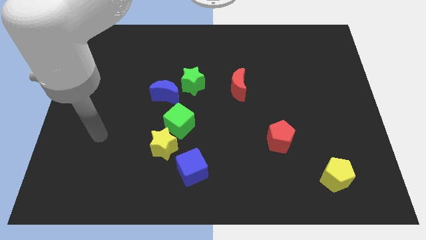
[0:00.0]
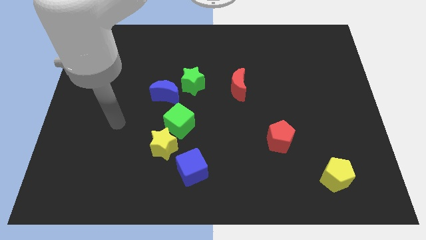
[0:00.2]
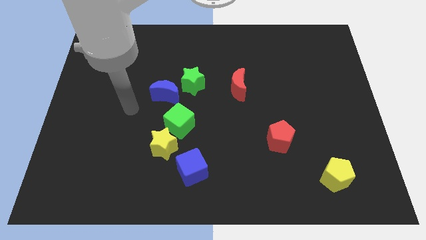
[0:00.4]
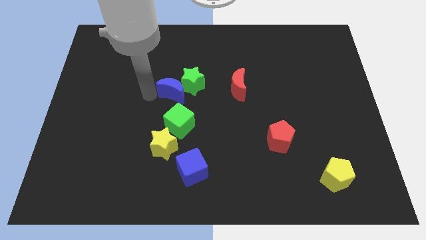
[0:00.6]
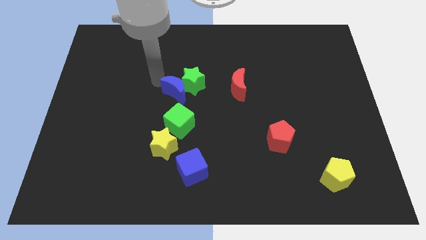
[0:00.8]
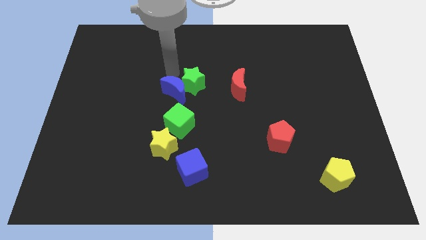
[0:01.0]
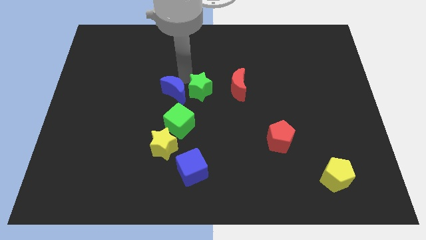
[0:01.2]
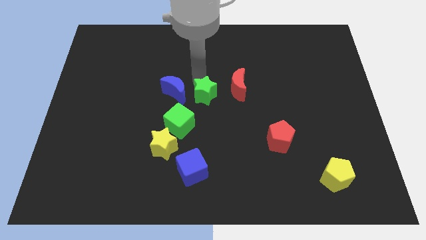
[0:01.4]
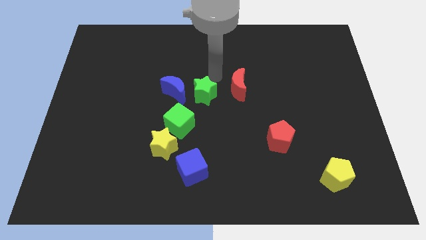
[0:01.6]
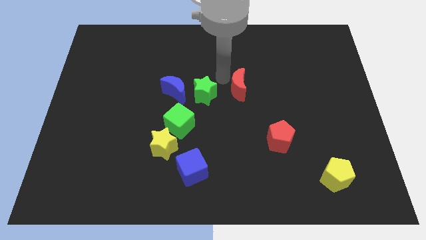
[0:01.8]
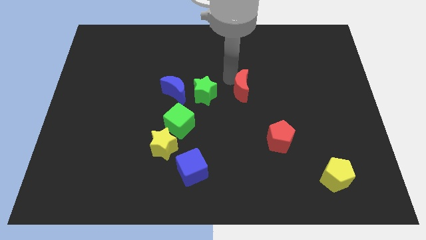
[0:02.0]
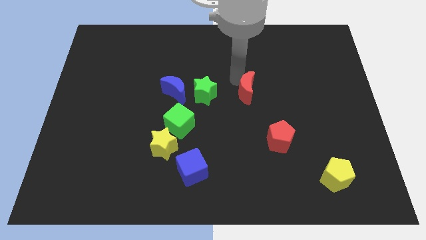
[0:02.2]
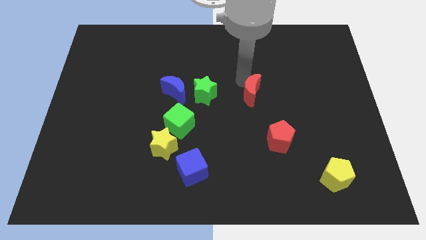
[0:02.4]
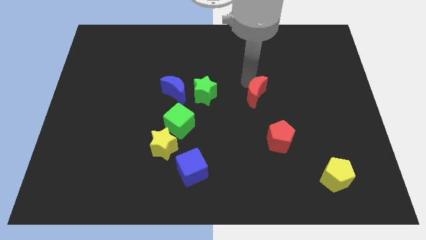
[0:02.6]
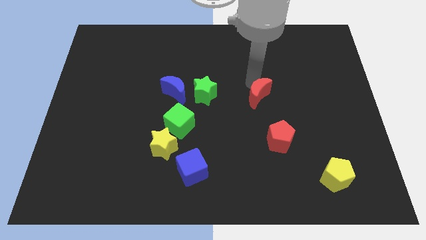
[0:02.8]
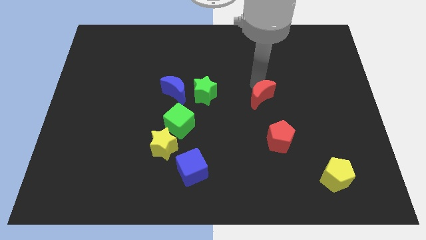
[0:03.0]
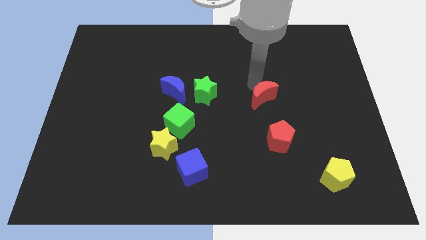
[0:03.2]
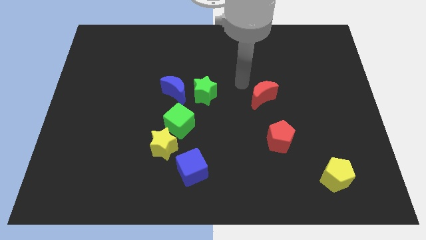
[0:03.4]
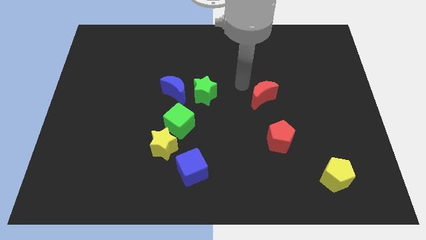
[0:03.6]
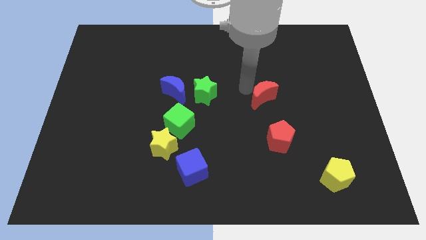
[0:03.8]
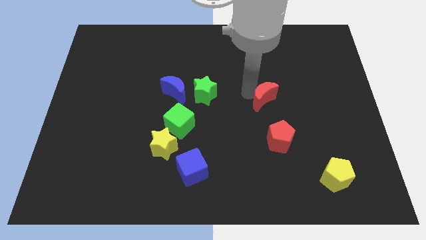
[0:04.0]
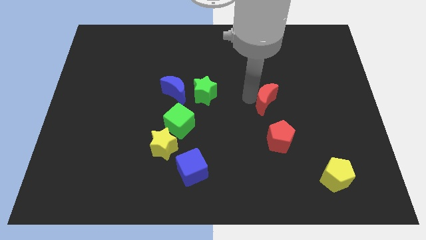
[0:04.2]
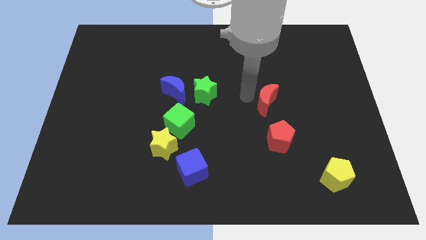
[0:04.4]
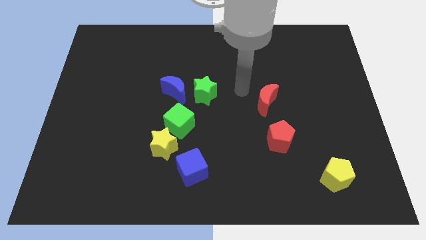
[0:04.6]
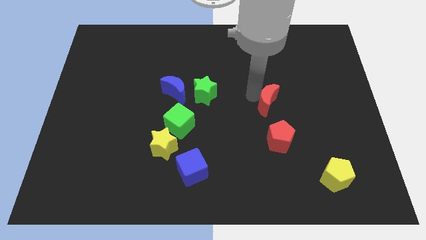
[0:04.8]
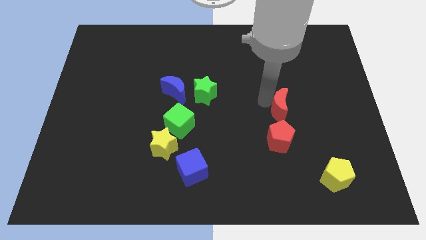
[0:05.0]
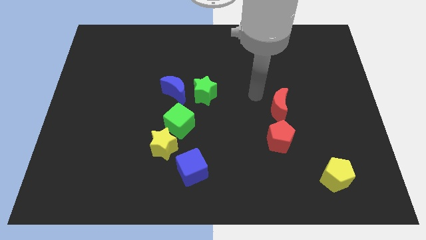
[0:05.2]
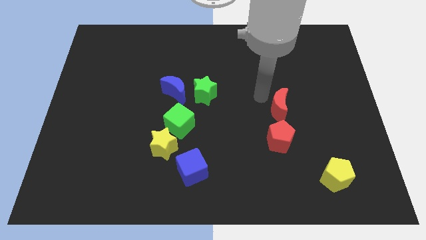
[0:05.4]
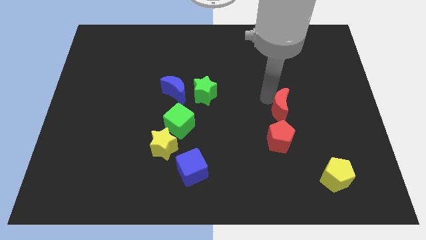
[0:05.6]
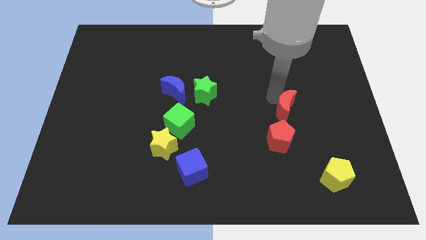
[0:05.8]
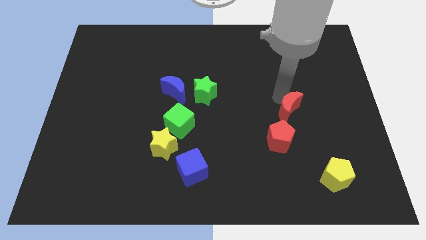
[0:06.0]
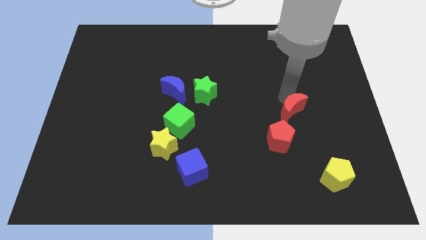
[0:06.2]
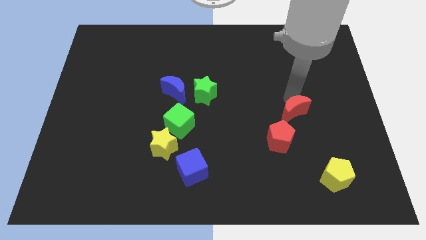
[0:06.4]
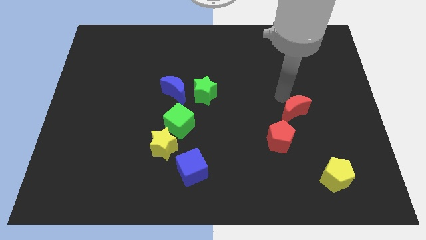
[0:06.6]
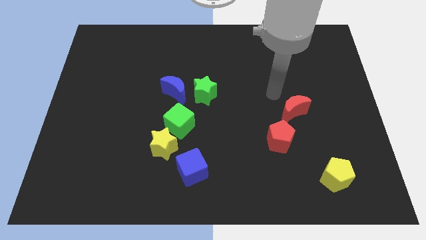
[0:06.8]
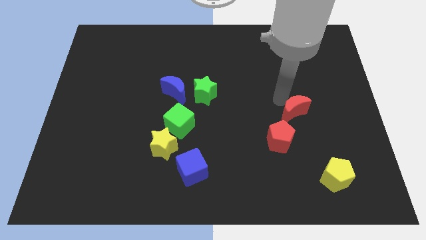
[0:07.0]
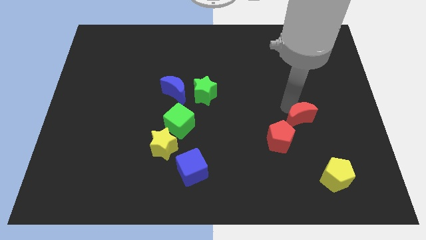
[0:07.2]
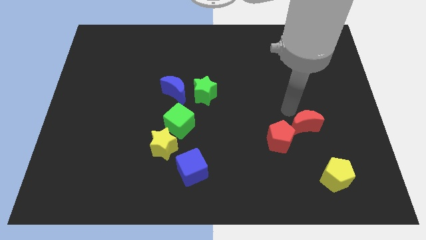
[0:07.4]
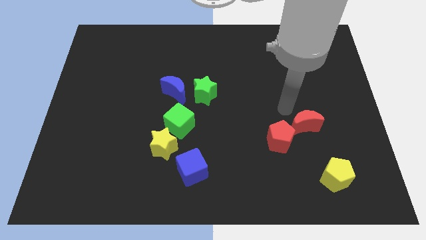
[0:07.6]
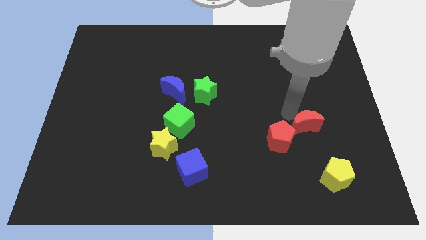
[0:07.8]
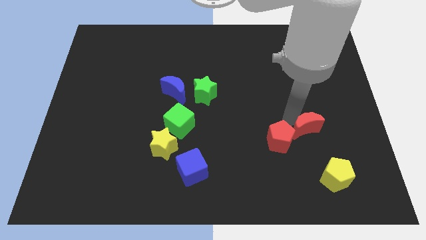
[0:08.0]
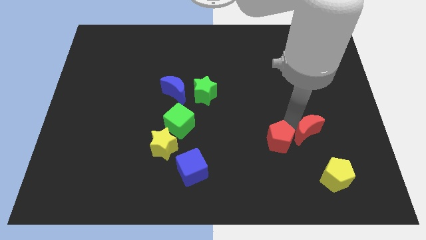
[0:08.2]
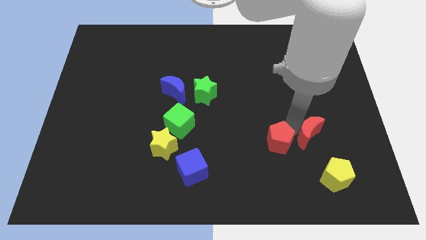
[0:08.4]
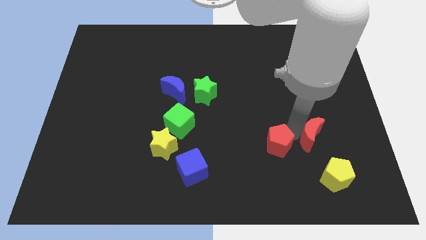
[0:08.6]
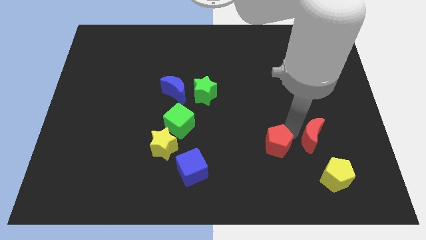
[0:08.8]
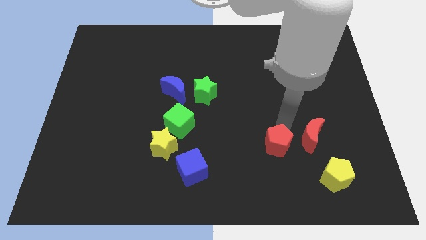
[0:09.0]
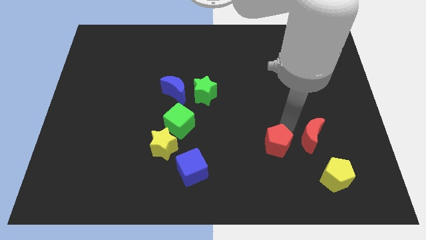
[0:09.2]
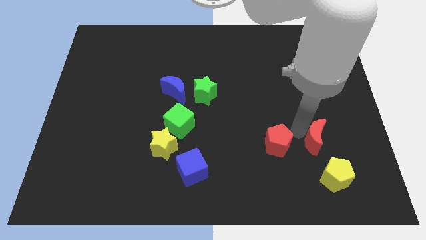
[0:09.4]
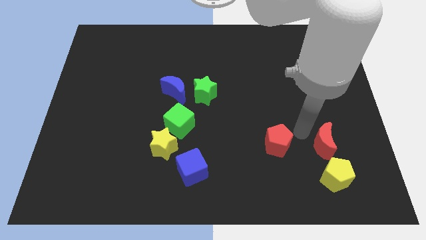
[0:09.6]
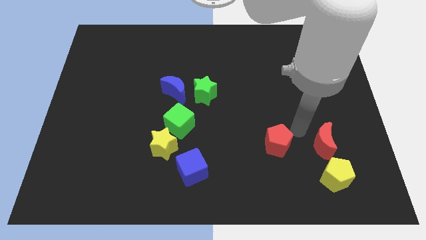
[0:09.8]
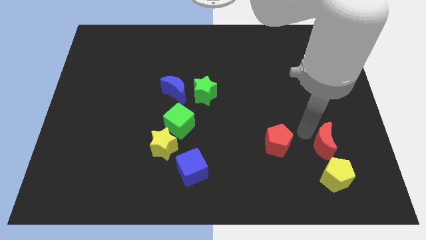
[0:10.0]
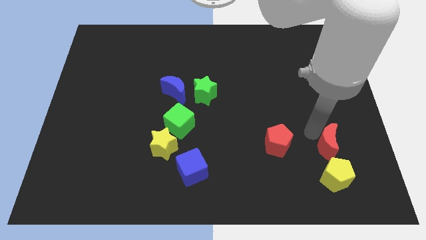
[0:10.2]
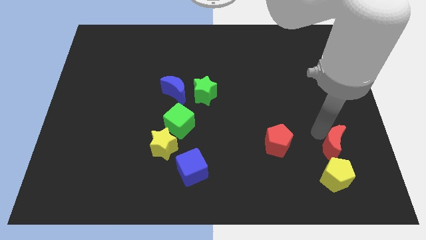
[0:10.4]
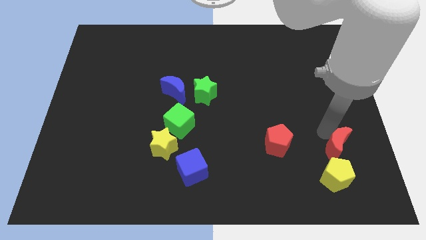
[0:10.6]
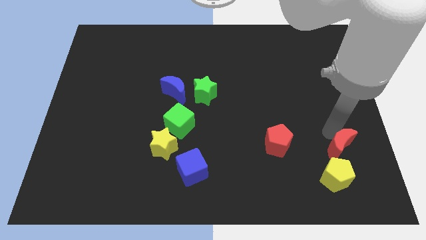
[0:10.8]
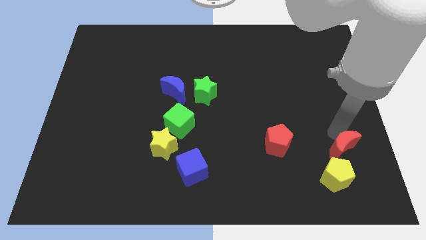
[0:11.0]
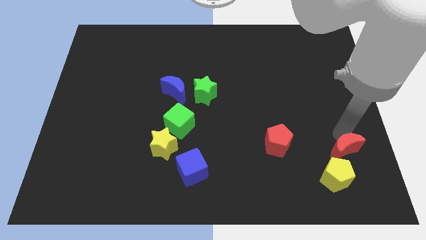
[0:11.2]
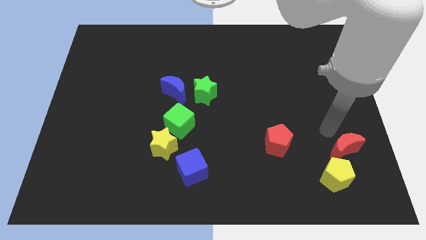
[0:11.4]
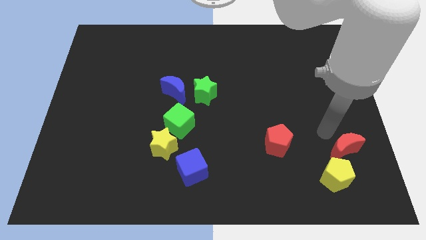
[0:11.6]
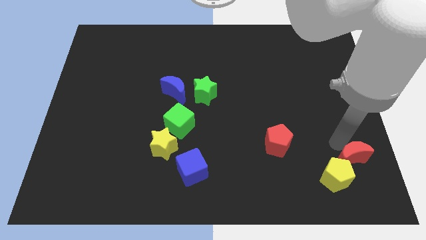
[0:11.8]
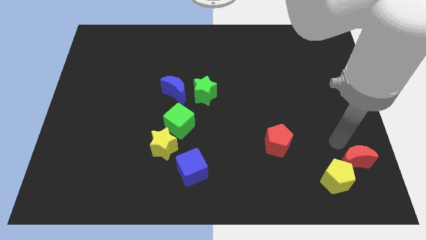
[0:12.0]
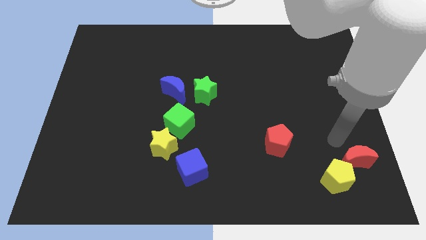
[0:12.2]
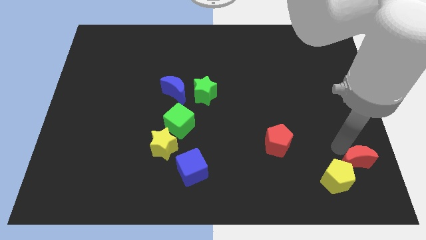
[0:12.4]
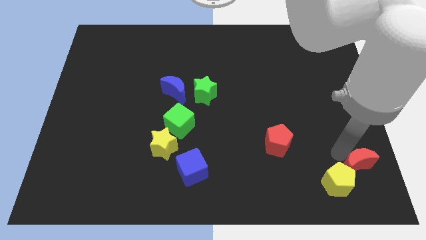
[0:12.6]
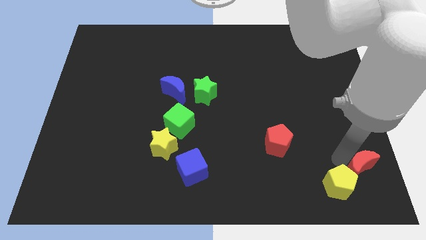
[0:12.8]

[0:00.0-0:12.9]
move the red moon to the bottom right corner
